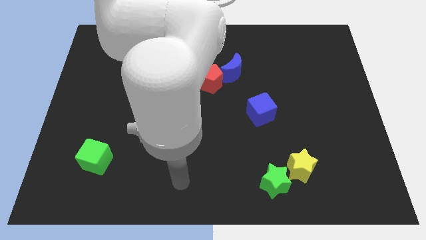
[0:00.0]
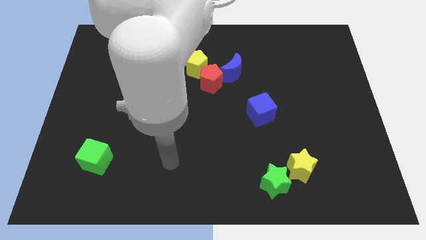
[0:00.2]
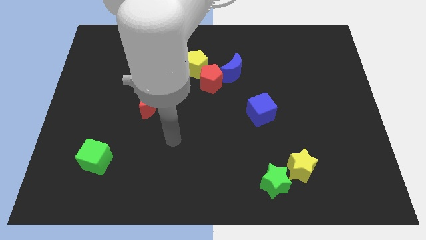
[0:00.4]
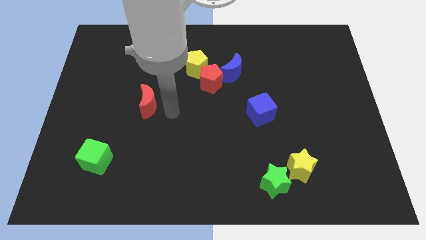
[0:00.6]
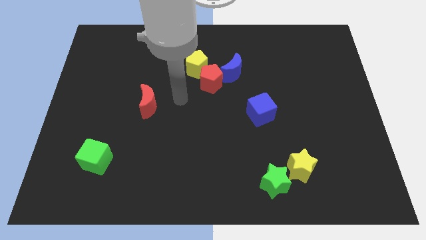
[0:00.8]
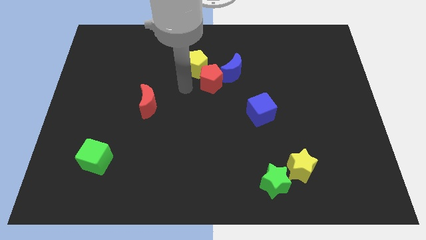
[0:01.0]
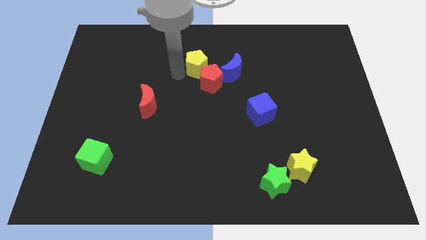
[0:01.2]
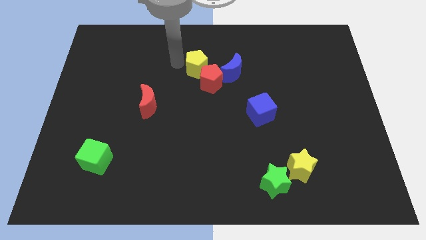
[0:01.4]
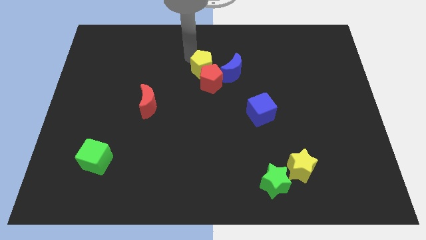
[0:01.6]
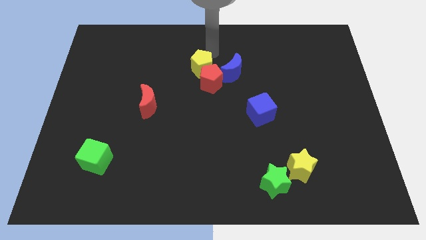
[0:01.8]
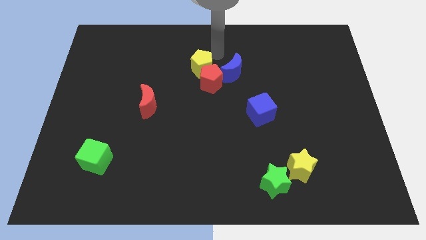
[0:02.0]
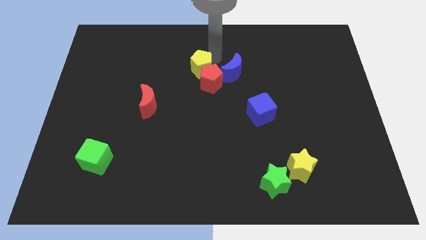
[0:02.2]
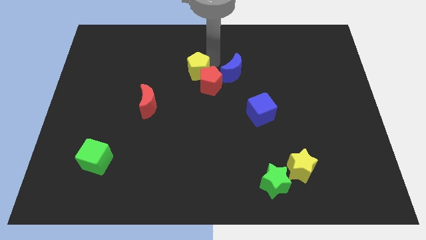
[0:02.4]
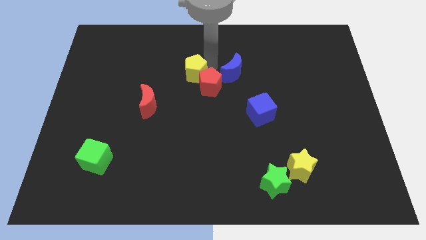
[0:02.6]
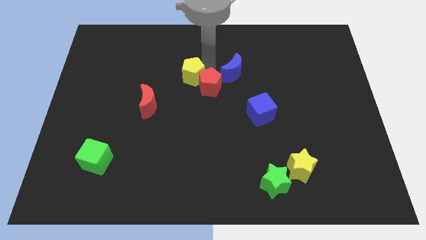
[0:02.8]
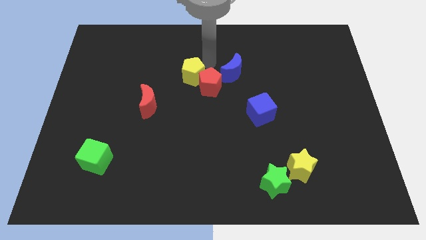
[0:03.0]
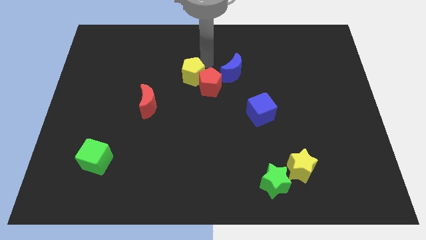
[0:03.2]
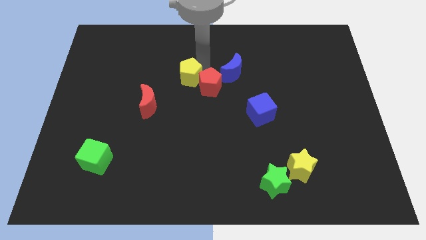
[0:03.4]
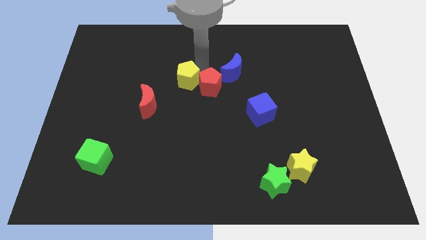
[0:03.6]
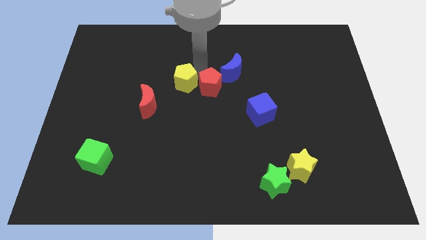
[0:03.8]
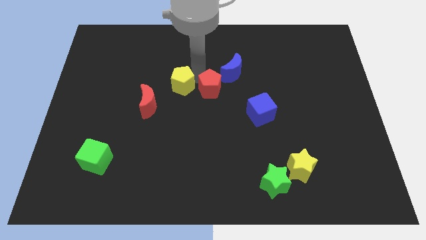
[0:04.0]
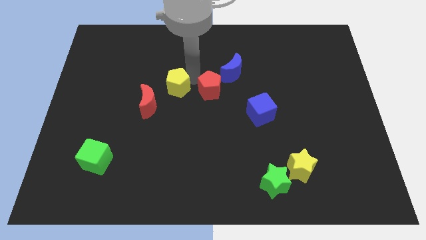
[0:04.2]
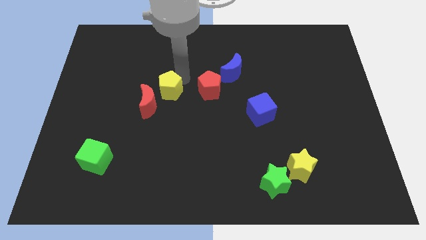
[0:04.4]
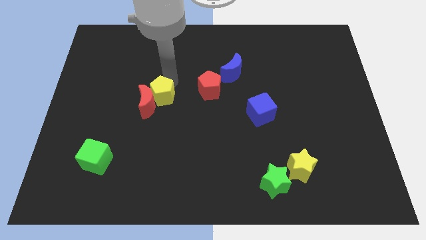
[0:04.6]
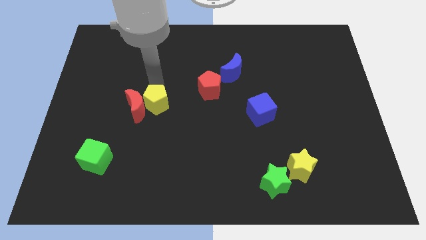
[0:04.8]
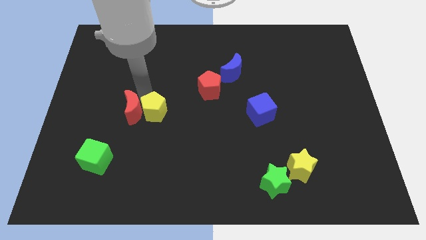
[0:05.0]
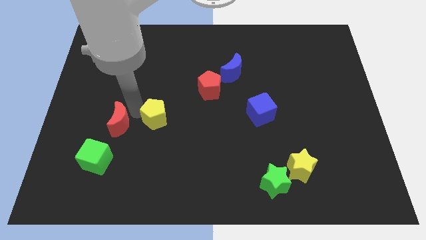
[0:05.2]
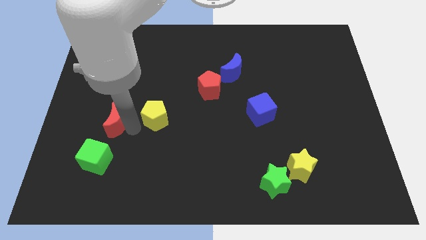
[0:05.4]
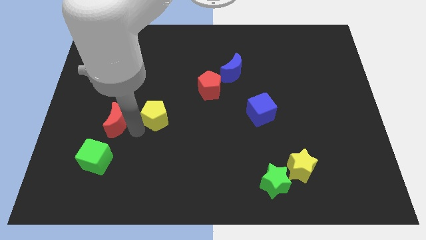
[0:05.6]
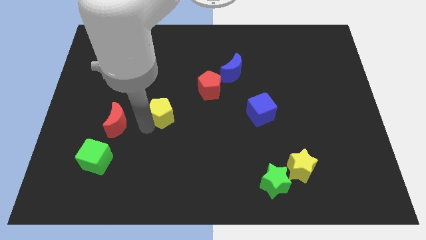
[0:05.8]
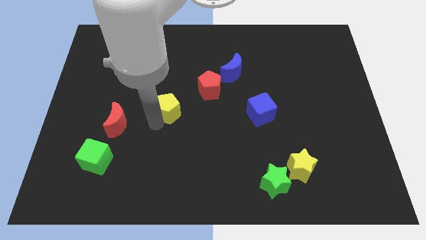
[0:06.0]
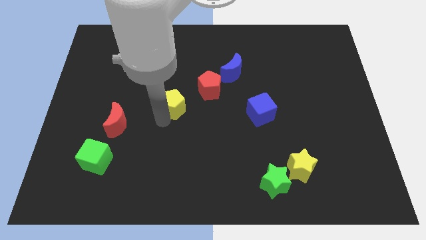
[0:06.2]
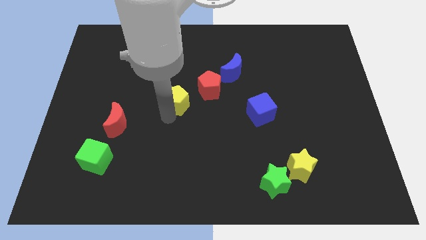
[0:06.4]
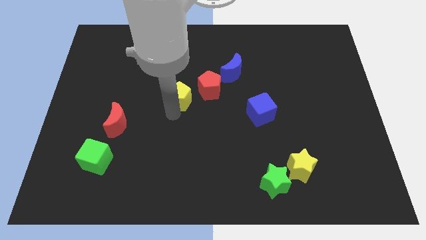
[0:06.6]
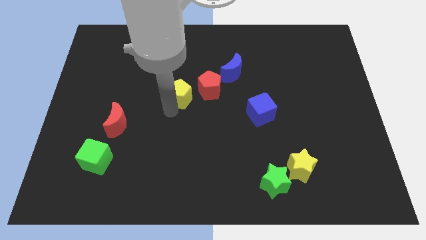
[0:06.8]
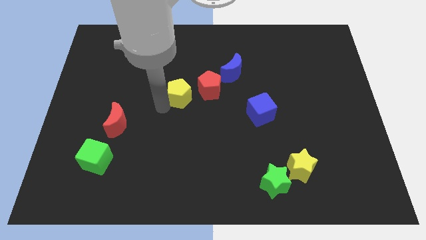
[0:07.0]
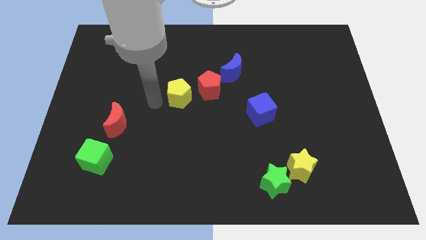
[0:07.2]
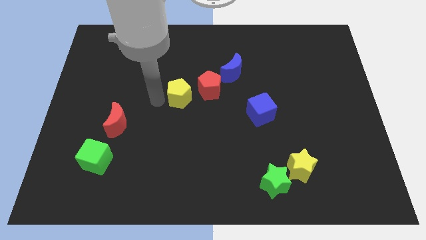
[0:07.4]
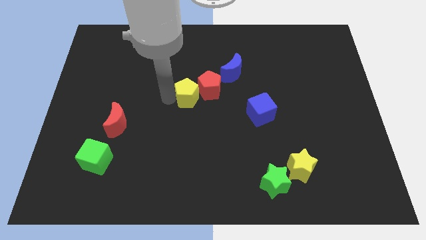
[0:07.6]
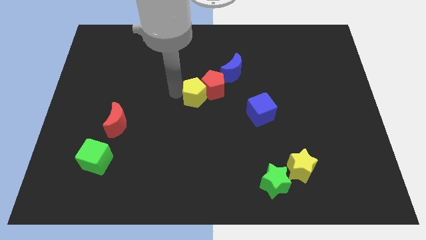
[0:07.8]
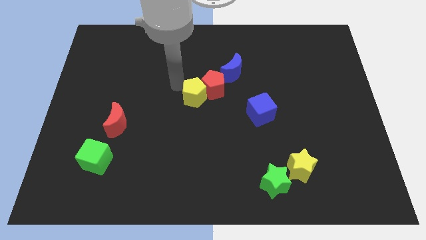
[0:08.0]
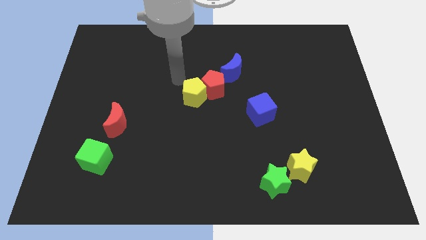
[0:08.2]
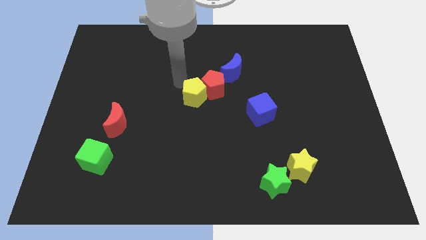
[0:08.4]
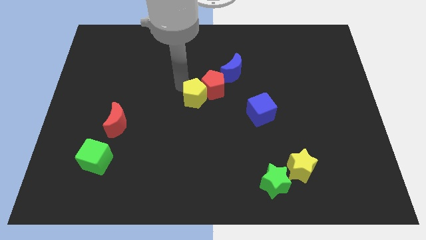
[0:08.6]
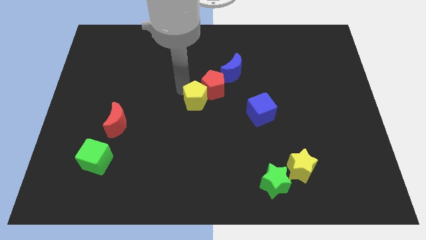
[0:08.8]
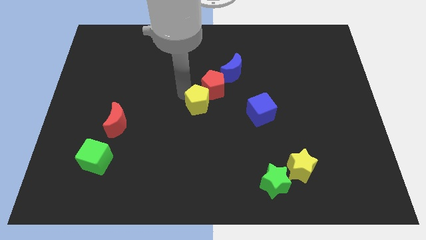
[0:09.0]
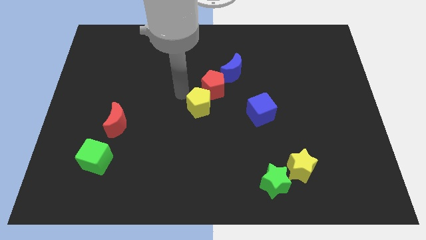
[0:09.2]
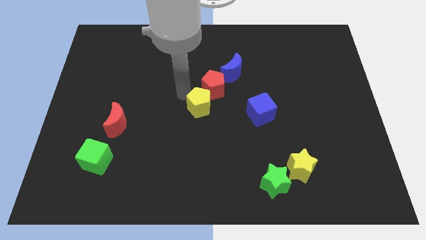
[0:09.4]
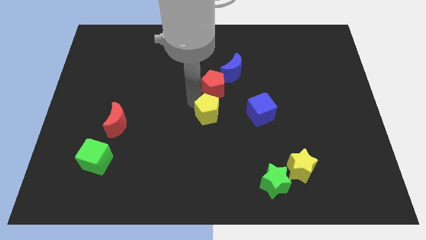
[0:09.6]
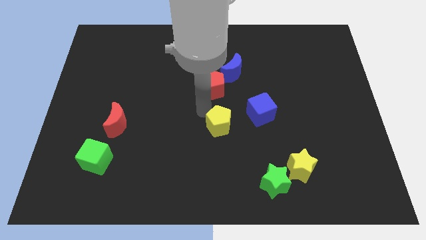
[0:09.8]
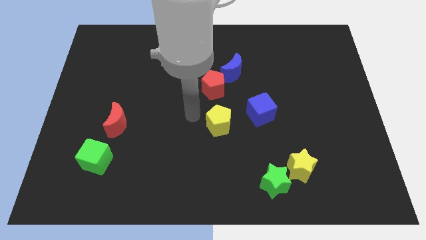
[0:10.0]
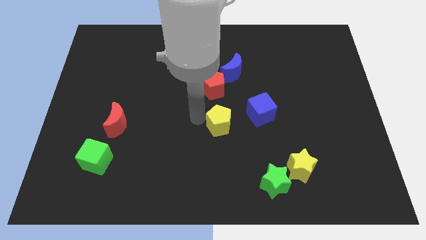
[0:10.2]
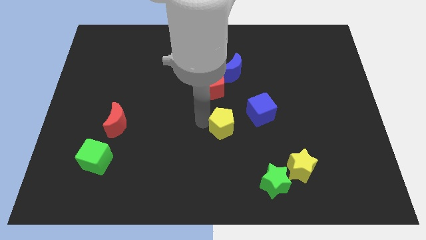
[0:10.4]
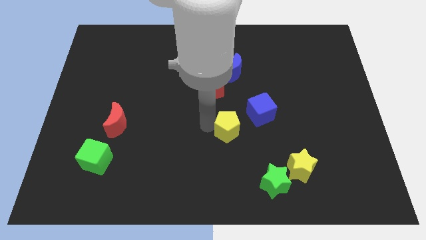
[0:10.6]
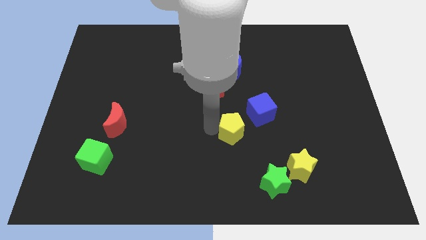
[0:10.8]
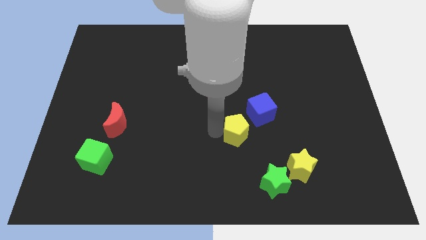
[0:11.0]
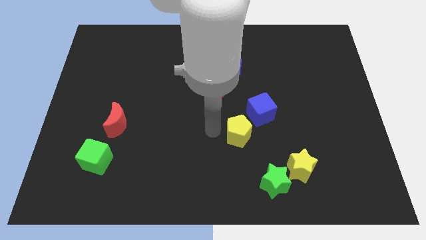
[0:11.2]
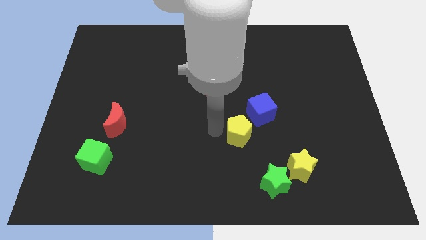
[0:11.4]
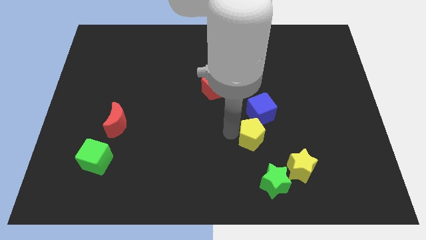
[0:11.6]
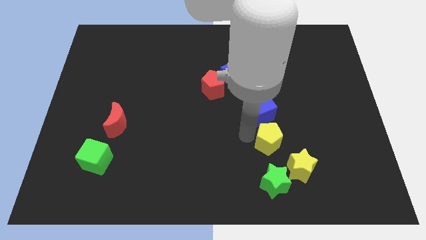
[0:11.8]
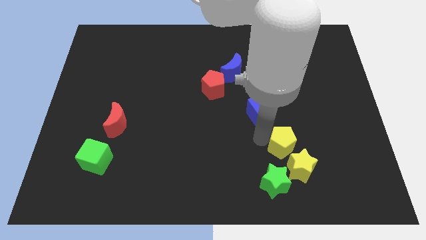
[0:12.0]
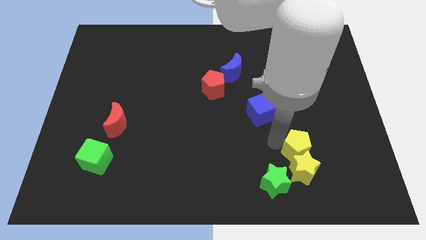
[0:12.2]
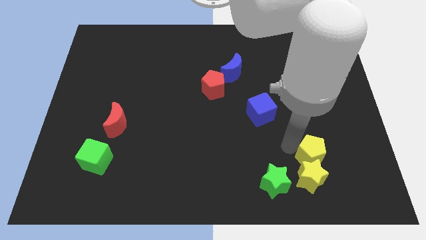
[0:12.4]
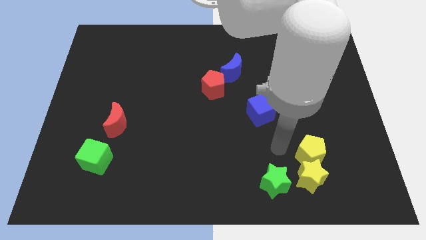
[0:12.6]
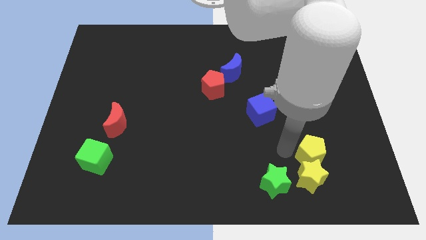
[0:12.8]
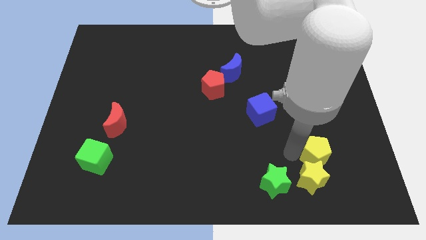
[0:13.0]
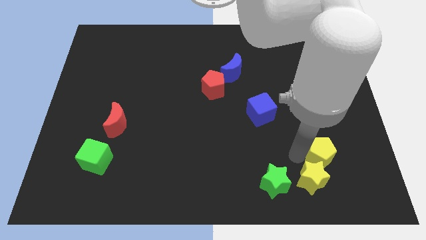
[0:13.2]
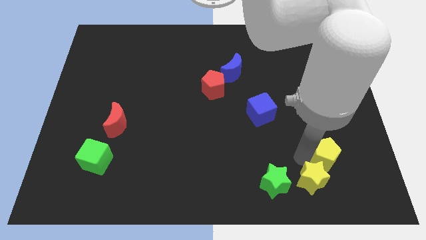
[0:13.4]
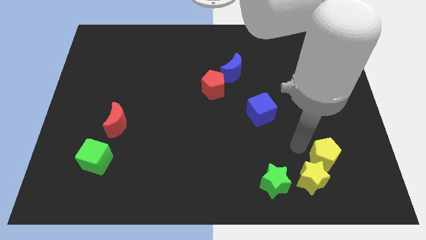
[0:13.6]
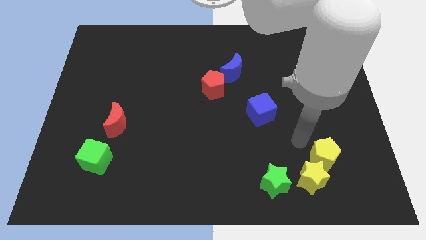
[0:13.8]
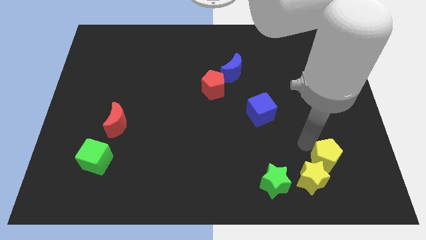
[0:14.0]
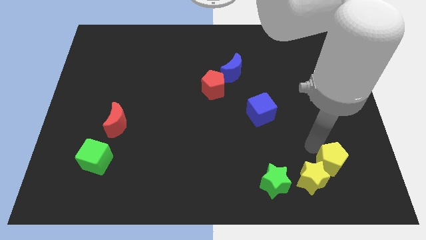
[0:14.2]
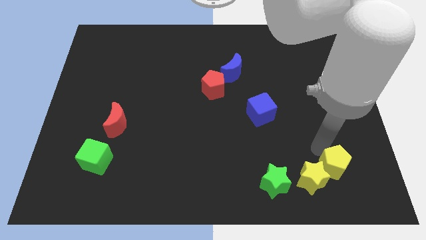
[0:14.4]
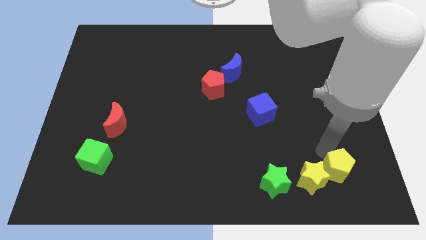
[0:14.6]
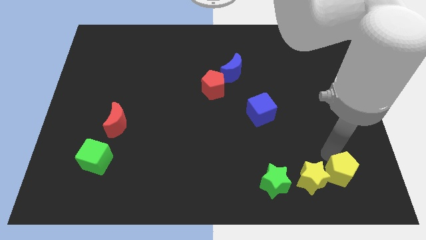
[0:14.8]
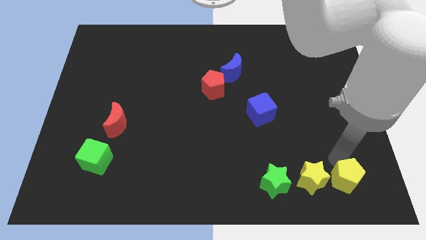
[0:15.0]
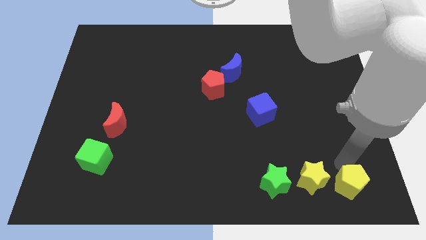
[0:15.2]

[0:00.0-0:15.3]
push the yellow pentagon to the lower right corner

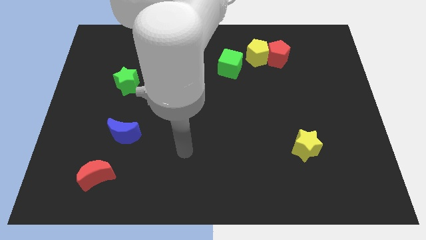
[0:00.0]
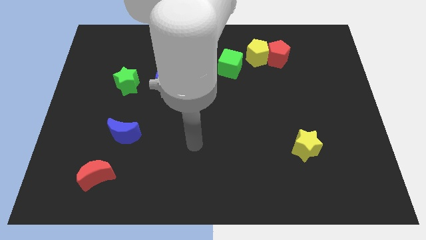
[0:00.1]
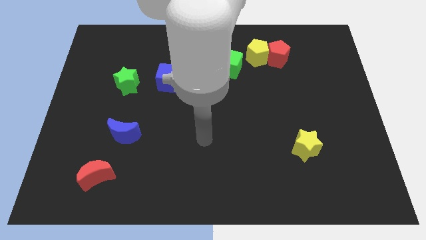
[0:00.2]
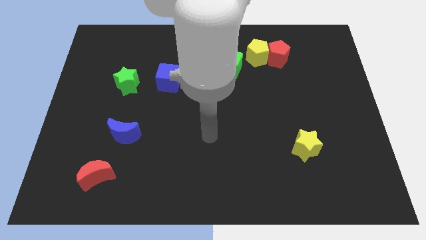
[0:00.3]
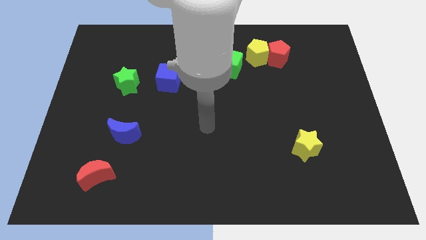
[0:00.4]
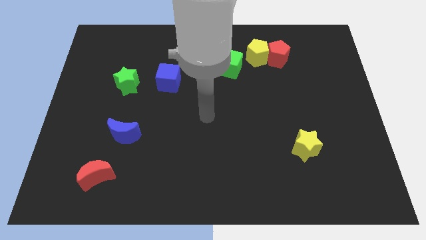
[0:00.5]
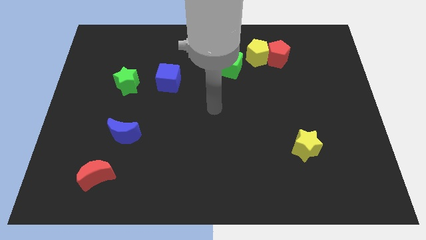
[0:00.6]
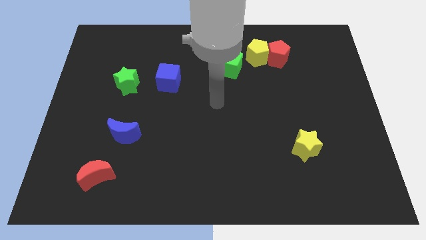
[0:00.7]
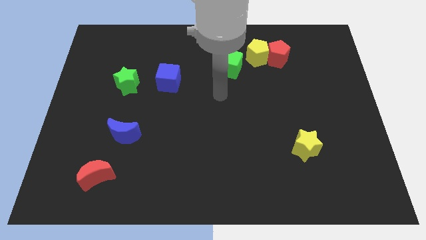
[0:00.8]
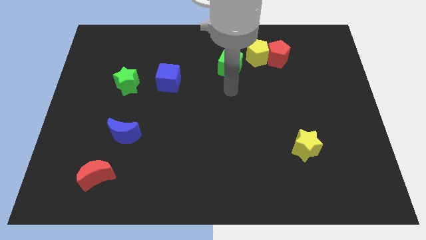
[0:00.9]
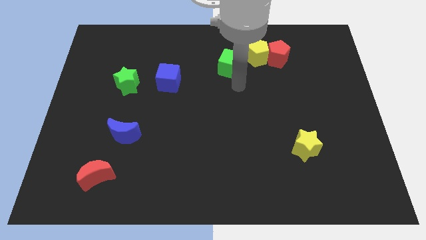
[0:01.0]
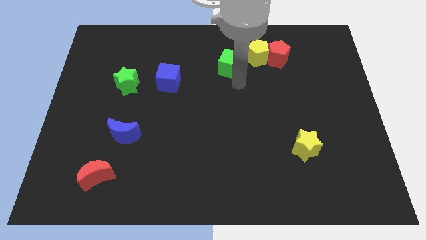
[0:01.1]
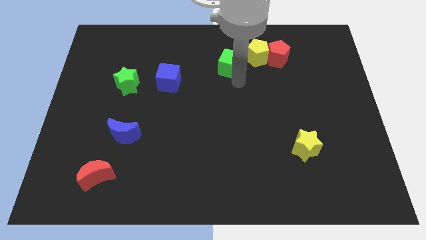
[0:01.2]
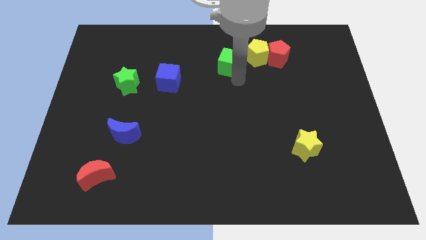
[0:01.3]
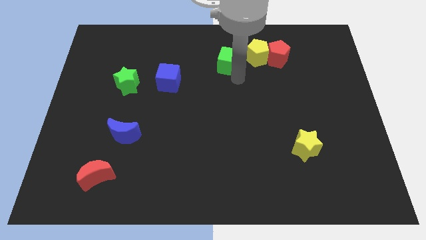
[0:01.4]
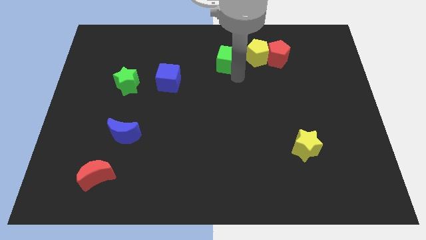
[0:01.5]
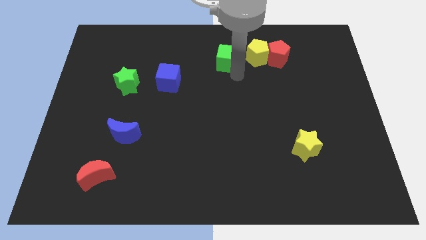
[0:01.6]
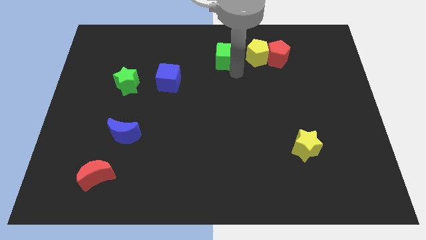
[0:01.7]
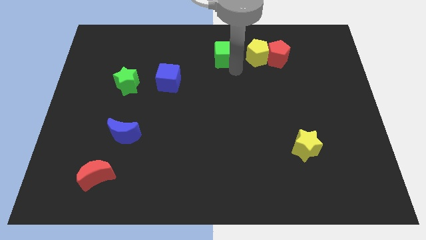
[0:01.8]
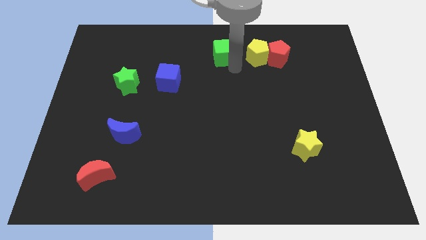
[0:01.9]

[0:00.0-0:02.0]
put the green cube to the top side
